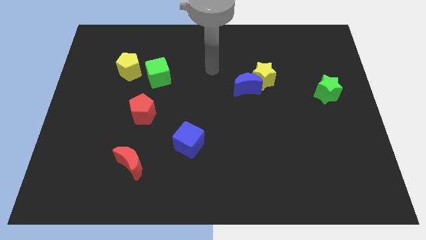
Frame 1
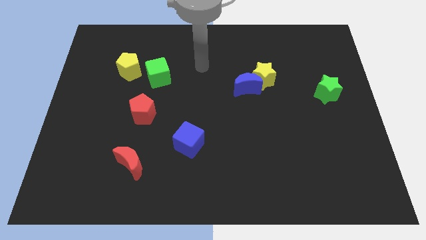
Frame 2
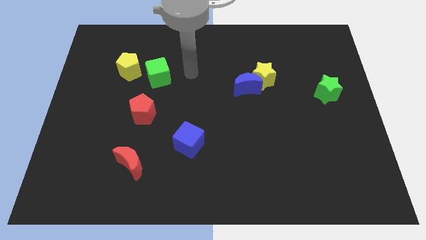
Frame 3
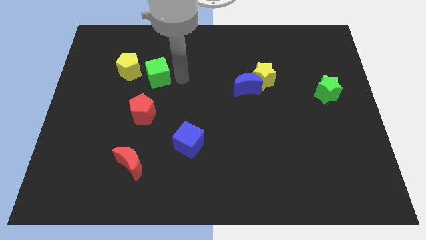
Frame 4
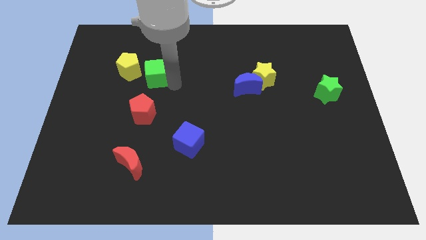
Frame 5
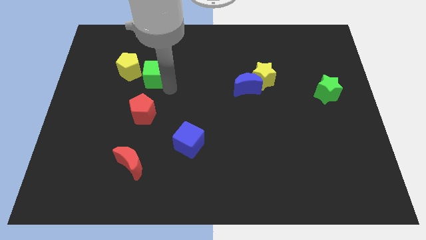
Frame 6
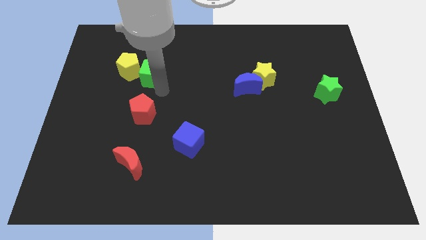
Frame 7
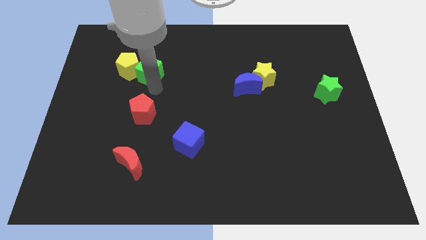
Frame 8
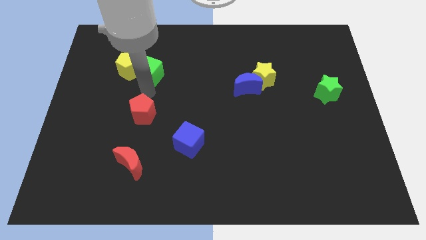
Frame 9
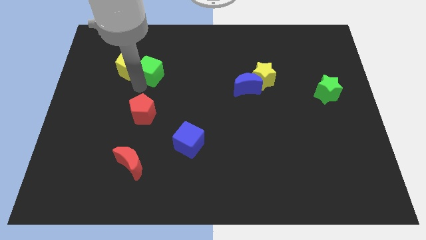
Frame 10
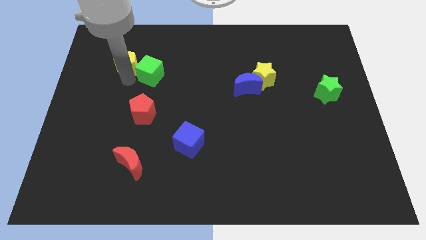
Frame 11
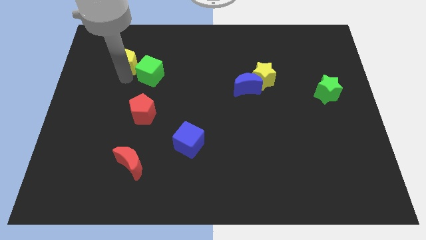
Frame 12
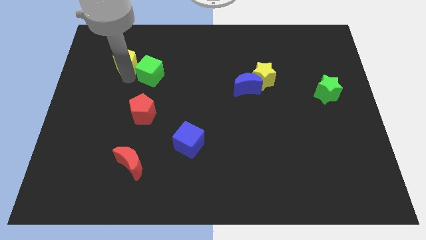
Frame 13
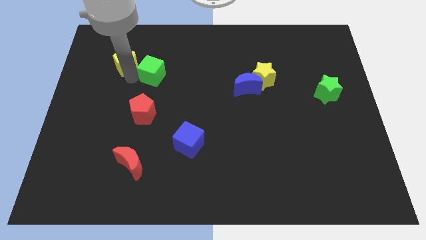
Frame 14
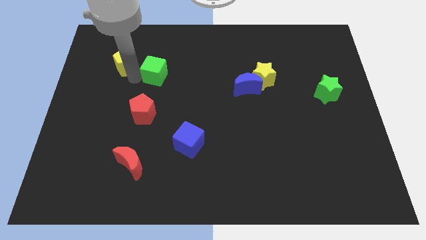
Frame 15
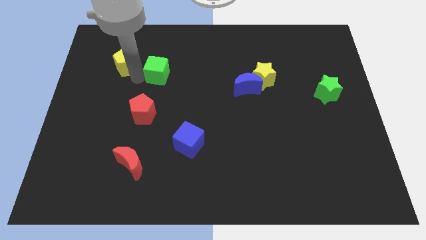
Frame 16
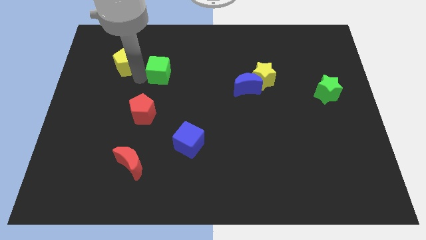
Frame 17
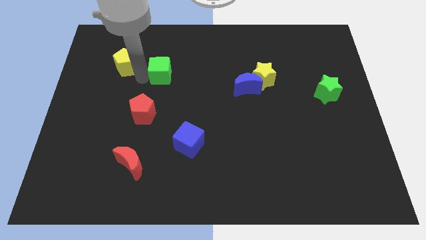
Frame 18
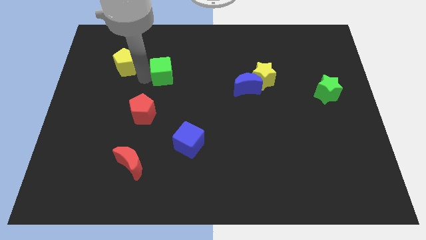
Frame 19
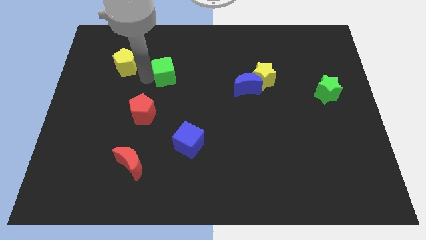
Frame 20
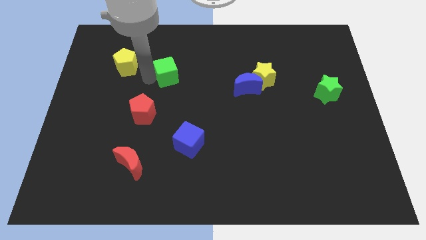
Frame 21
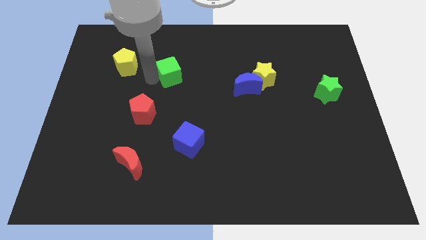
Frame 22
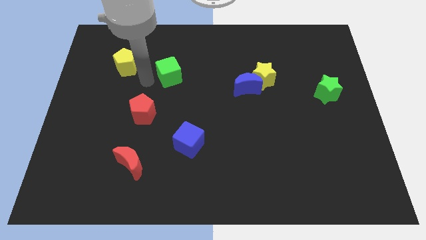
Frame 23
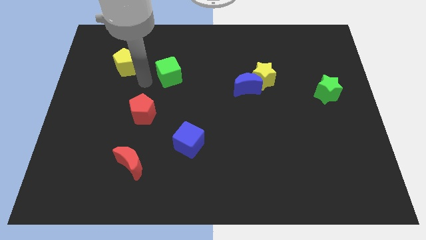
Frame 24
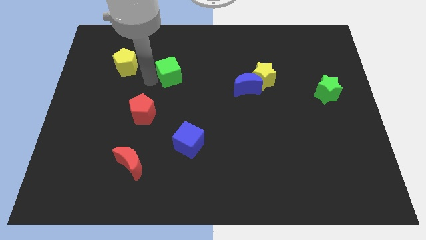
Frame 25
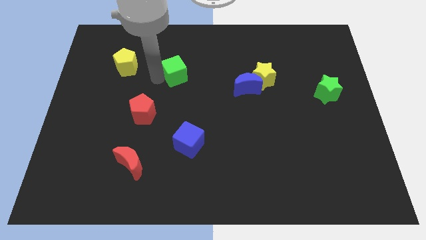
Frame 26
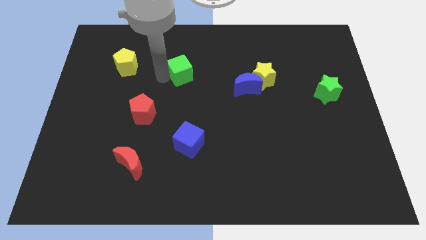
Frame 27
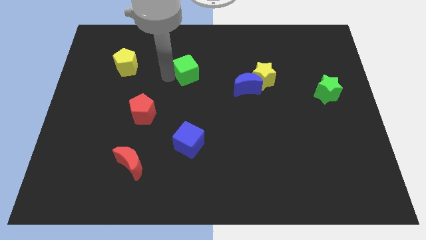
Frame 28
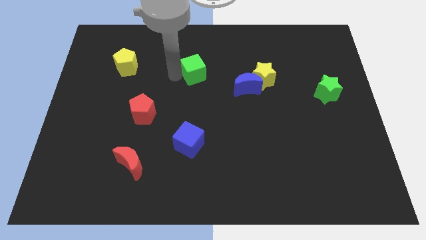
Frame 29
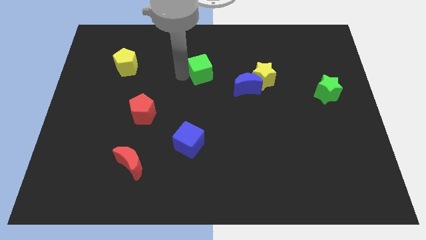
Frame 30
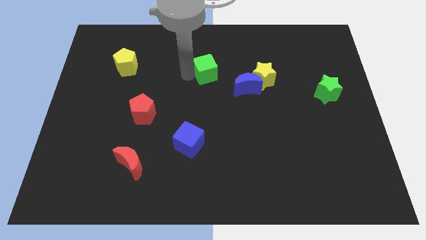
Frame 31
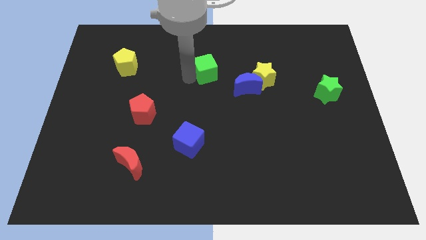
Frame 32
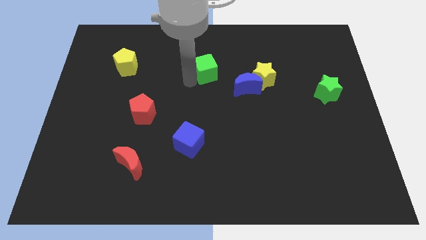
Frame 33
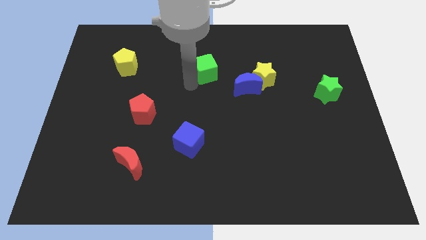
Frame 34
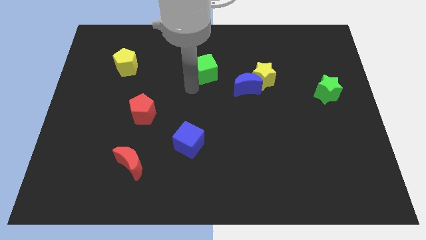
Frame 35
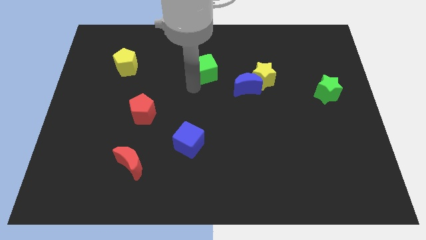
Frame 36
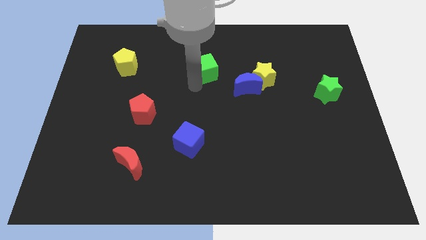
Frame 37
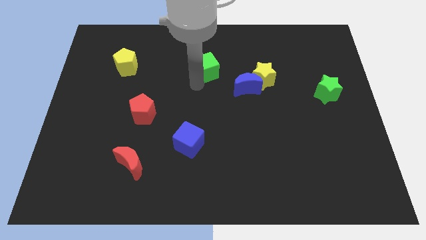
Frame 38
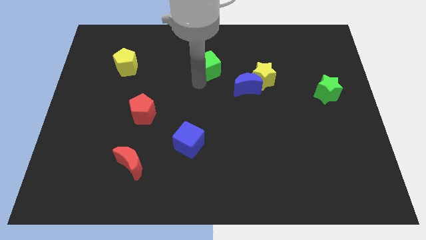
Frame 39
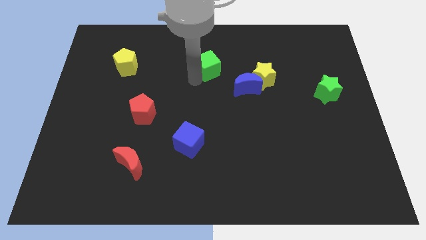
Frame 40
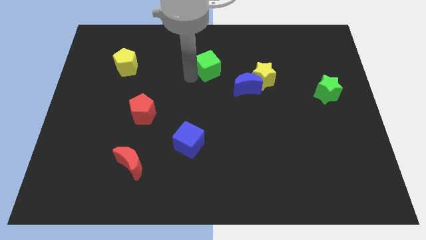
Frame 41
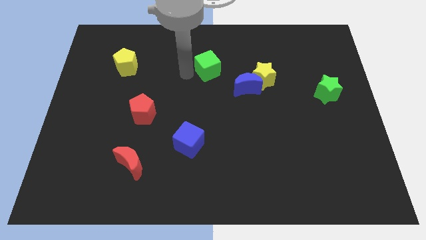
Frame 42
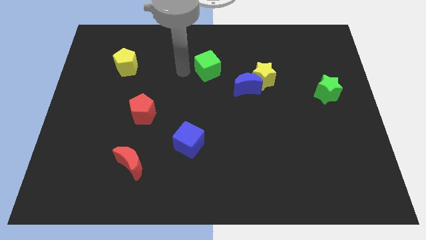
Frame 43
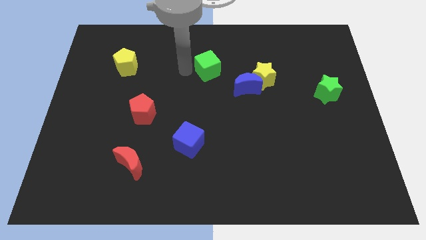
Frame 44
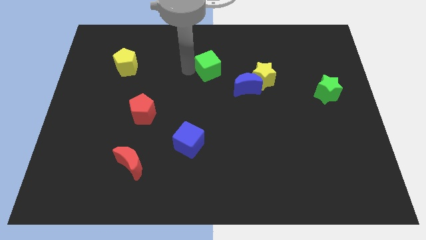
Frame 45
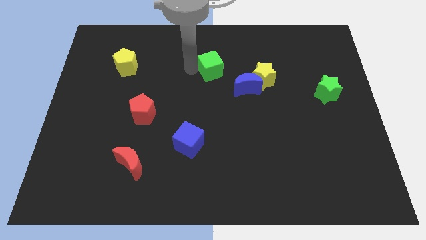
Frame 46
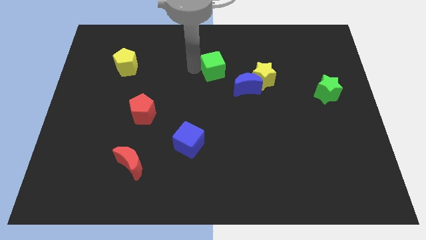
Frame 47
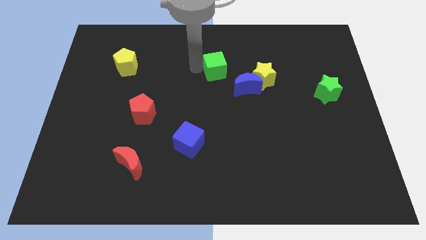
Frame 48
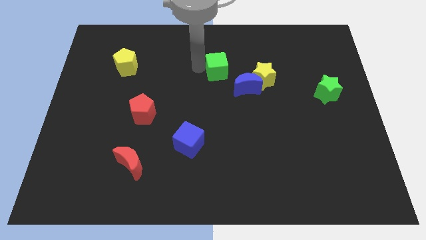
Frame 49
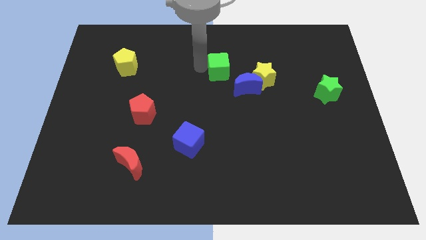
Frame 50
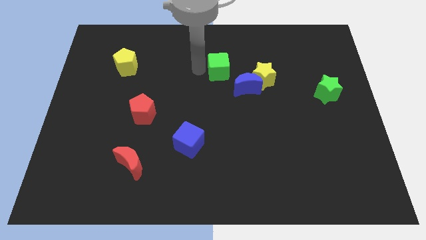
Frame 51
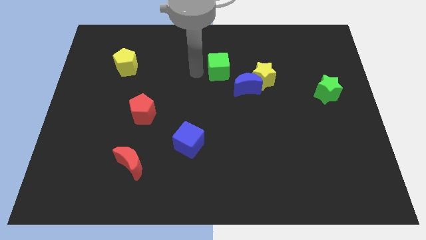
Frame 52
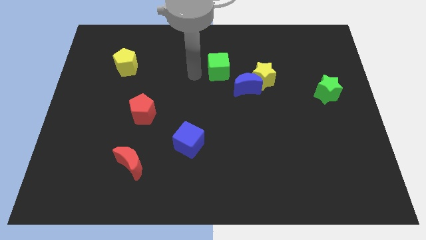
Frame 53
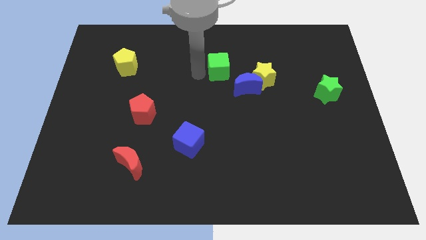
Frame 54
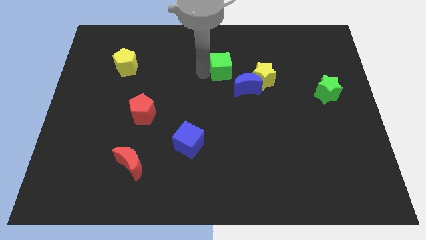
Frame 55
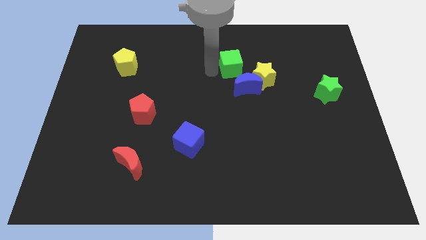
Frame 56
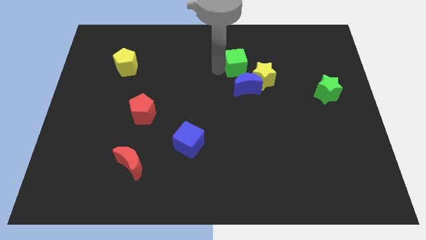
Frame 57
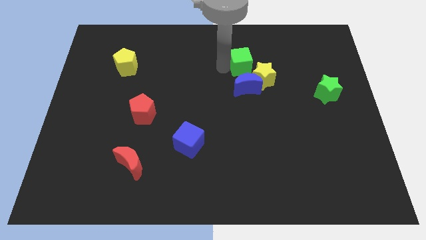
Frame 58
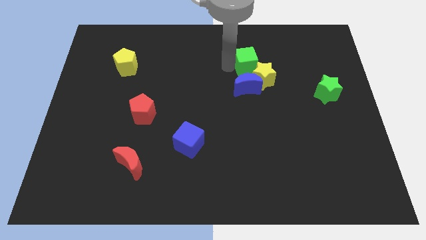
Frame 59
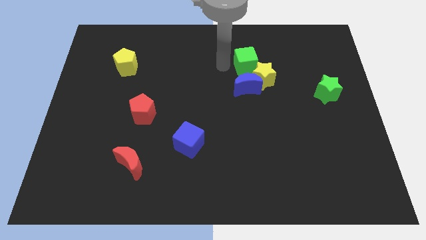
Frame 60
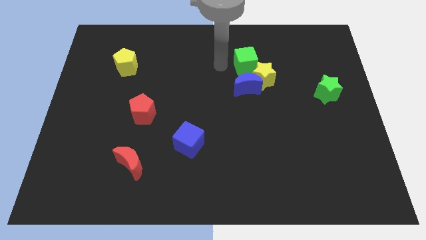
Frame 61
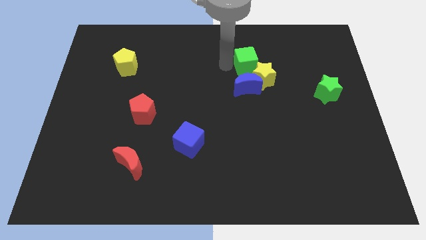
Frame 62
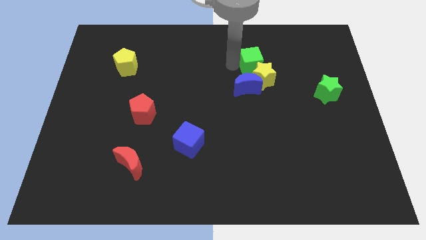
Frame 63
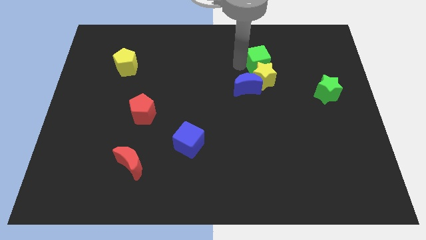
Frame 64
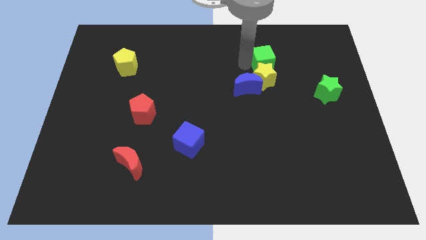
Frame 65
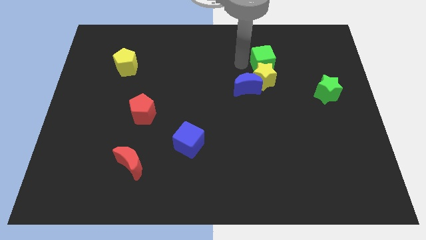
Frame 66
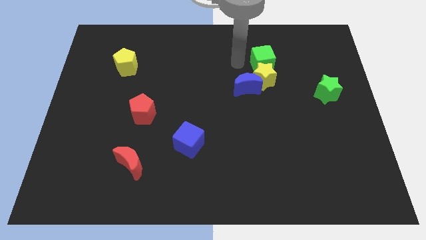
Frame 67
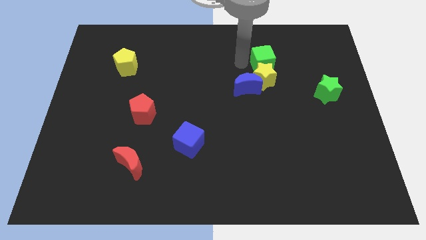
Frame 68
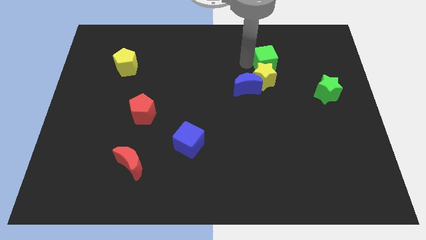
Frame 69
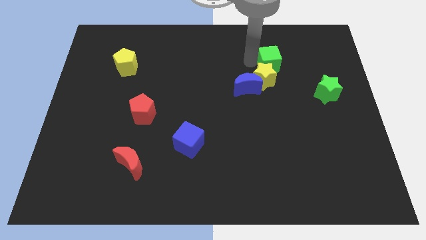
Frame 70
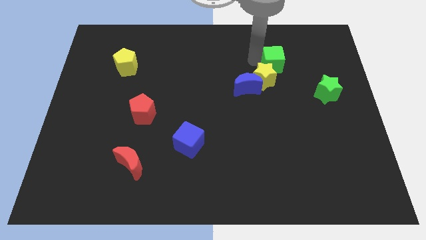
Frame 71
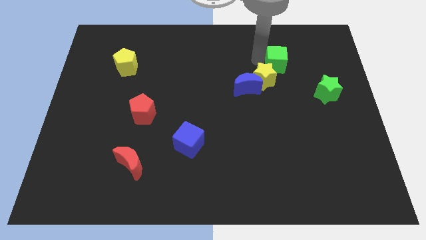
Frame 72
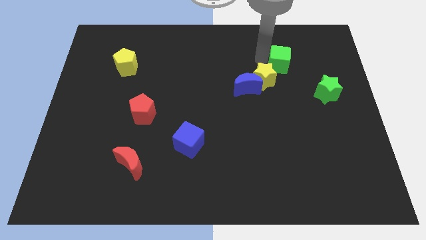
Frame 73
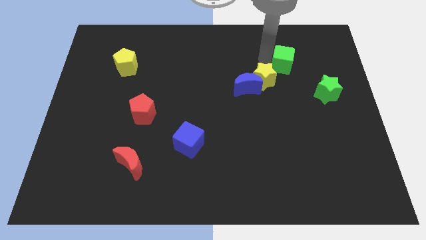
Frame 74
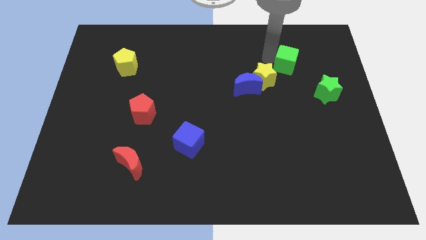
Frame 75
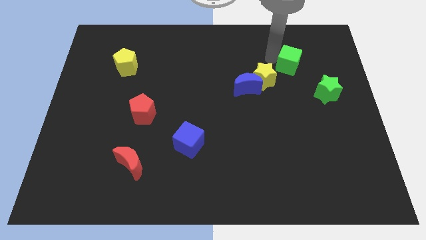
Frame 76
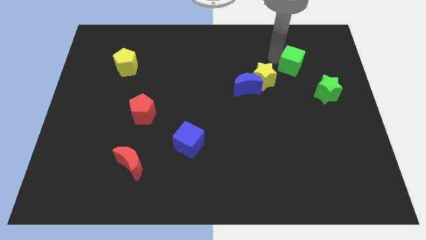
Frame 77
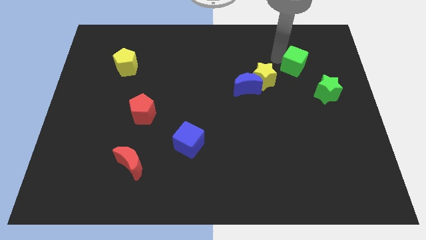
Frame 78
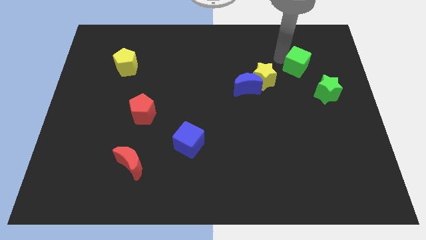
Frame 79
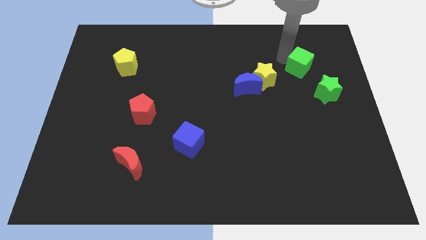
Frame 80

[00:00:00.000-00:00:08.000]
push the green cube to the right side of the yellow star
